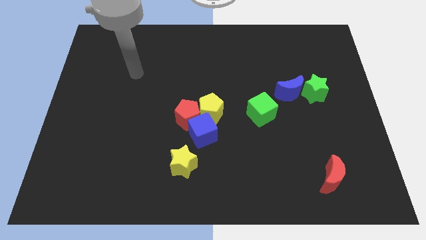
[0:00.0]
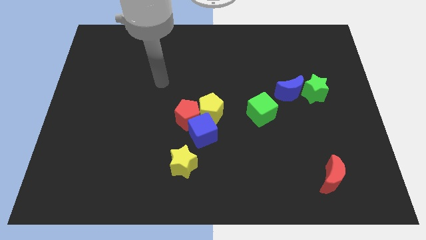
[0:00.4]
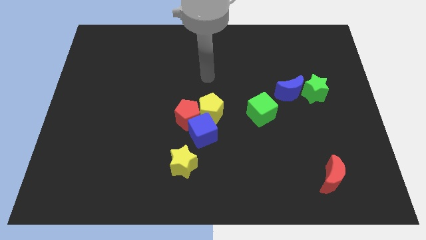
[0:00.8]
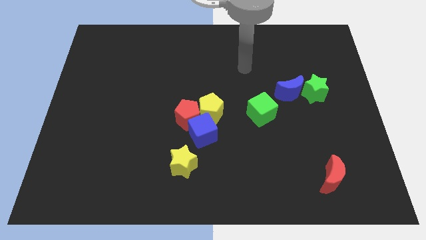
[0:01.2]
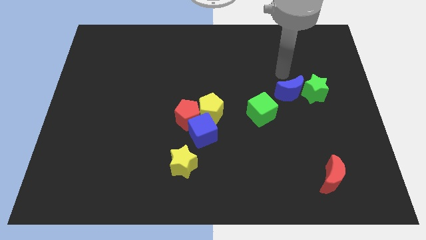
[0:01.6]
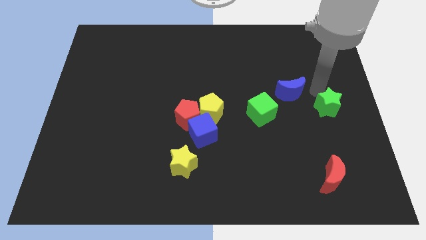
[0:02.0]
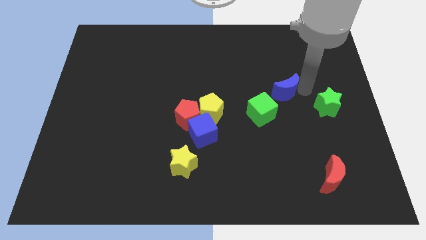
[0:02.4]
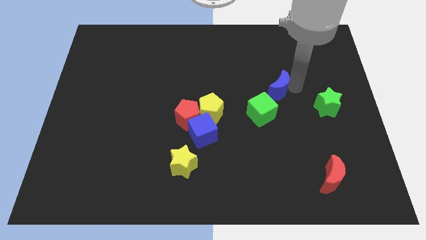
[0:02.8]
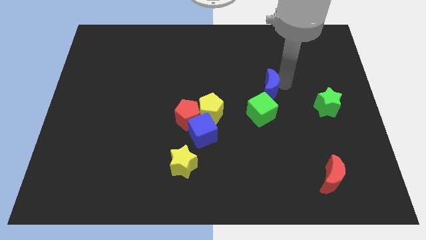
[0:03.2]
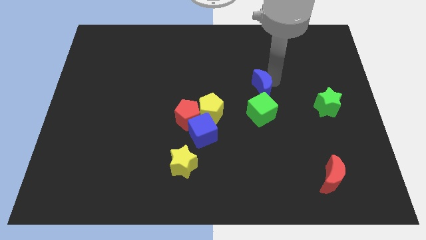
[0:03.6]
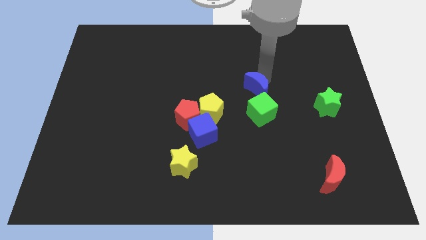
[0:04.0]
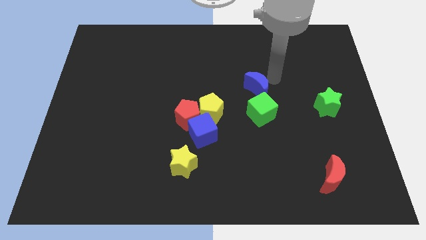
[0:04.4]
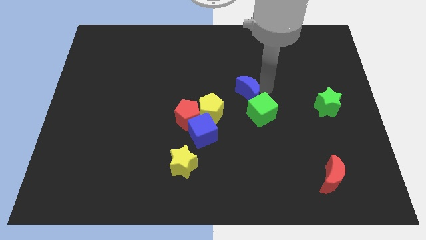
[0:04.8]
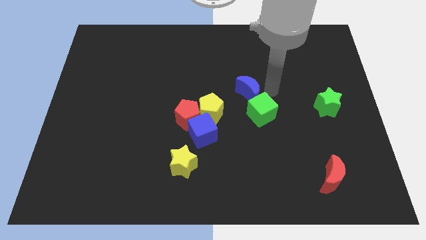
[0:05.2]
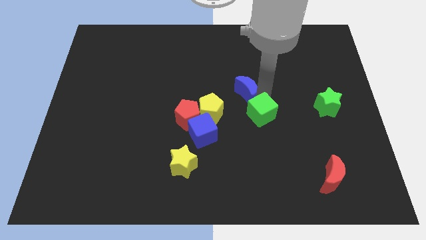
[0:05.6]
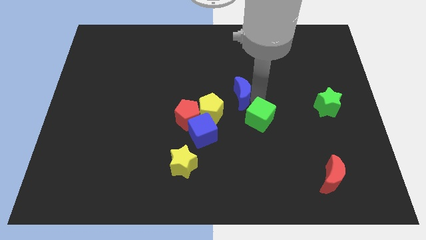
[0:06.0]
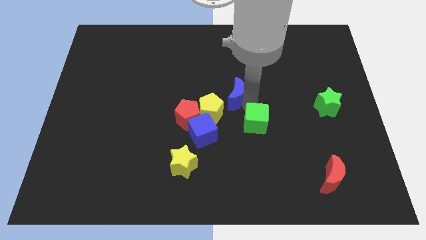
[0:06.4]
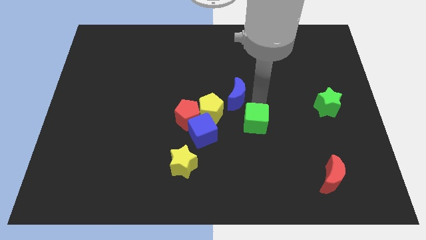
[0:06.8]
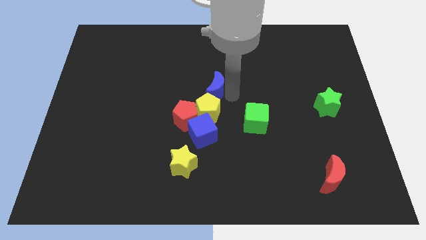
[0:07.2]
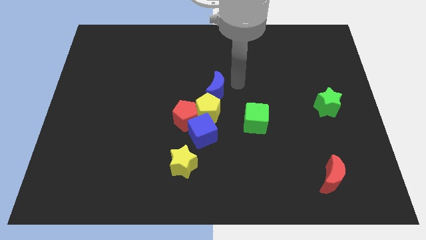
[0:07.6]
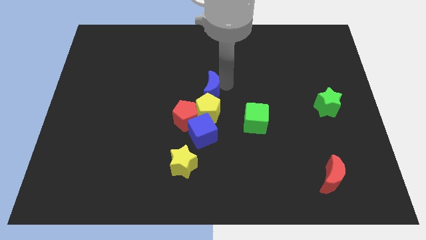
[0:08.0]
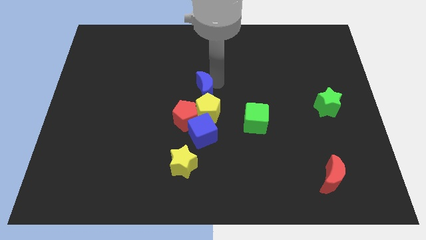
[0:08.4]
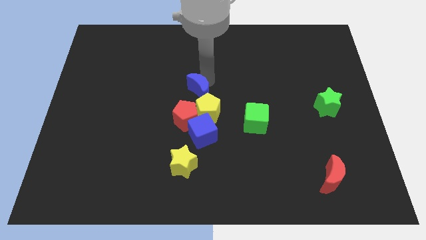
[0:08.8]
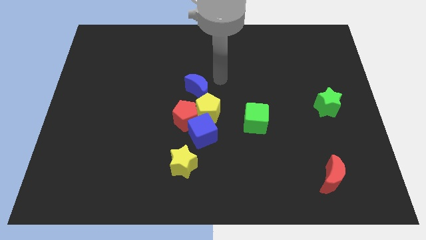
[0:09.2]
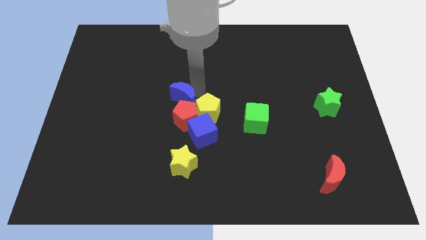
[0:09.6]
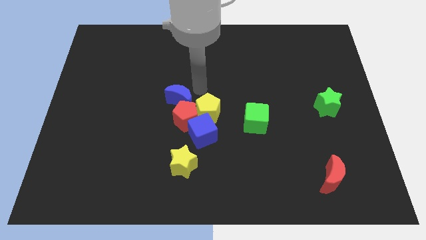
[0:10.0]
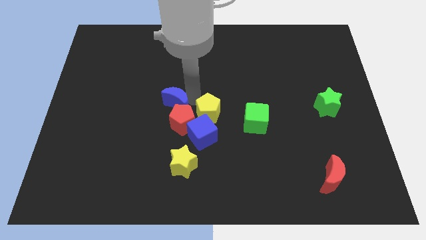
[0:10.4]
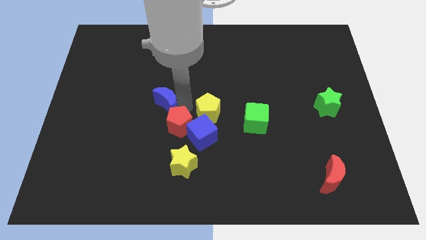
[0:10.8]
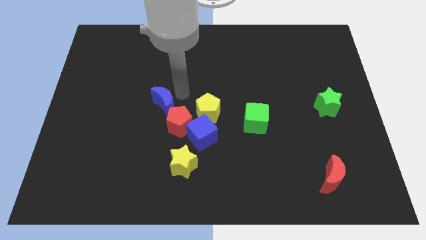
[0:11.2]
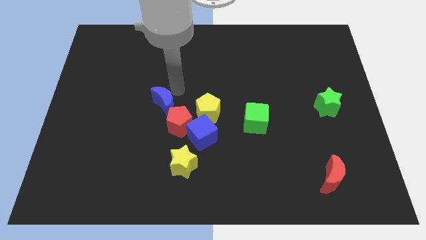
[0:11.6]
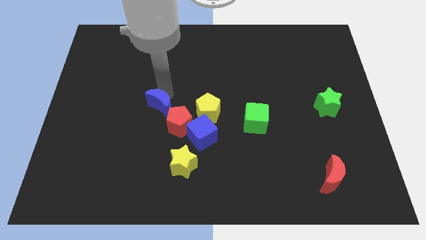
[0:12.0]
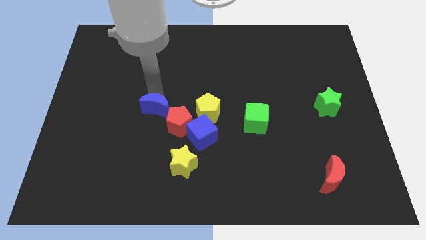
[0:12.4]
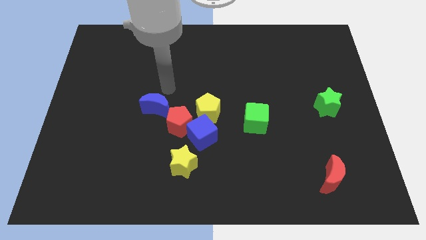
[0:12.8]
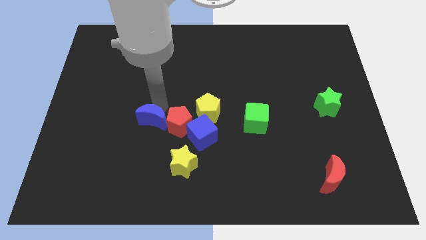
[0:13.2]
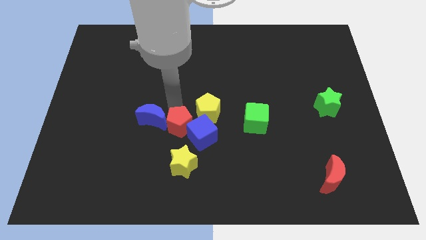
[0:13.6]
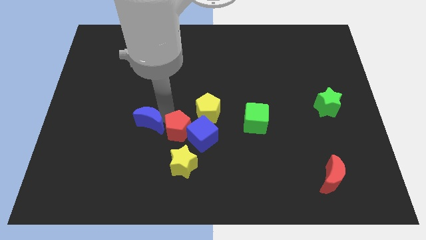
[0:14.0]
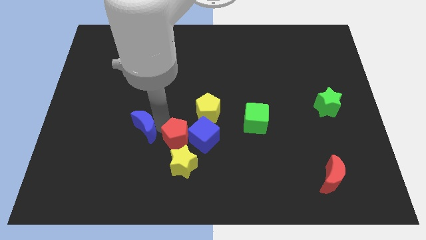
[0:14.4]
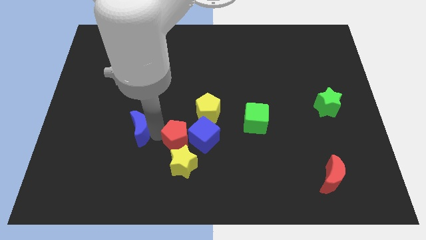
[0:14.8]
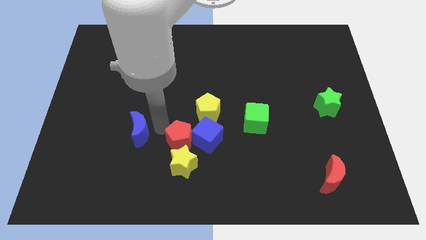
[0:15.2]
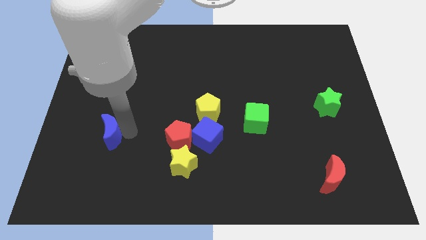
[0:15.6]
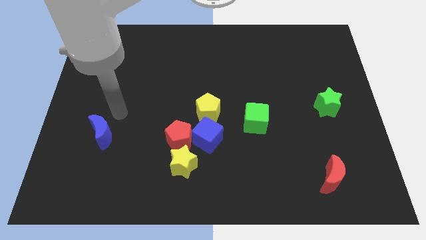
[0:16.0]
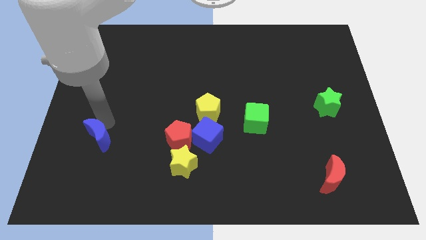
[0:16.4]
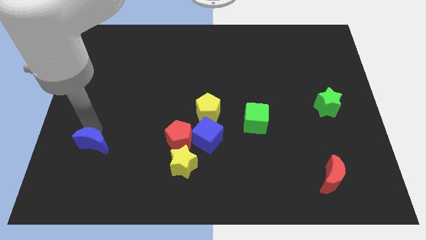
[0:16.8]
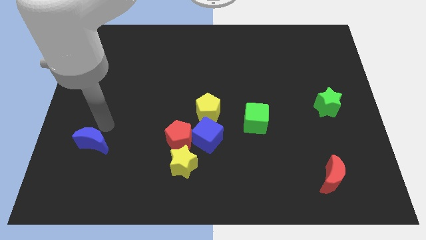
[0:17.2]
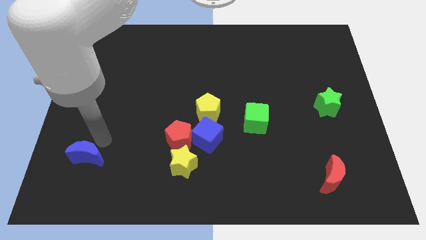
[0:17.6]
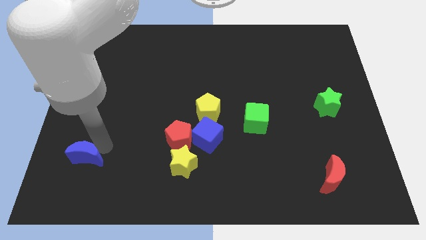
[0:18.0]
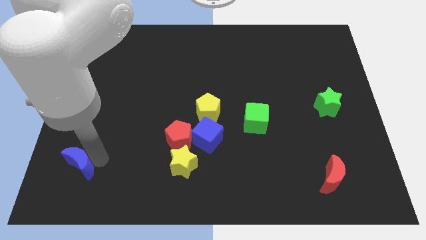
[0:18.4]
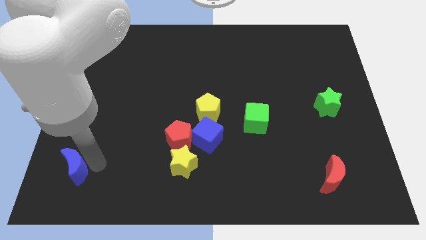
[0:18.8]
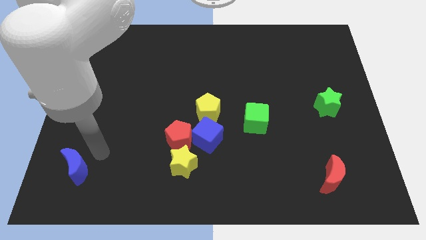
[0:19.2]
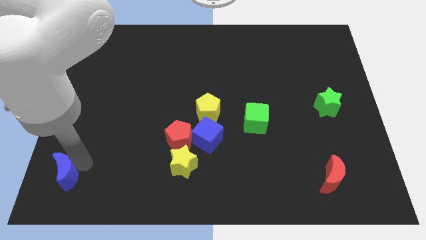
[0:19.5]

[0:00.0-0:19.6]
put the blue moon to the bottom left corner

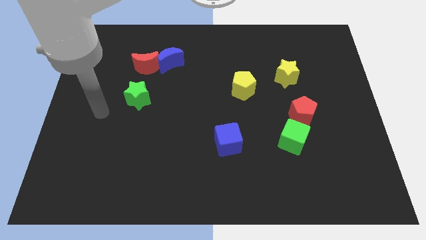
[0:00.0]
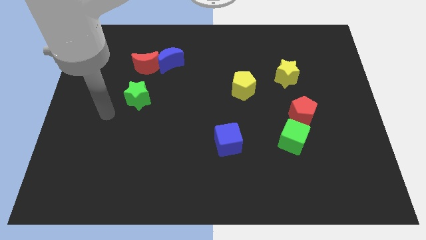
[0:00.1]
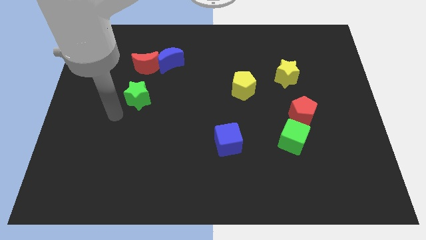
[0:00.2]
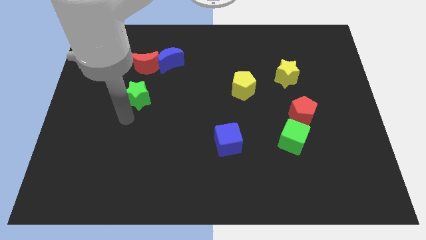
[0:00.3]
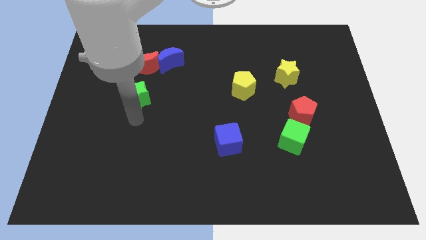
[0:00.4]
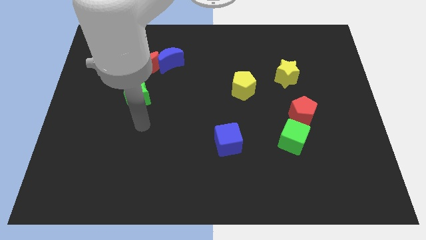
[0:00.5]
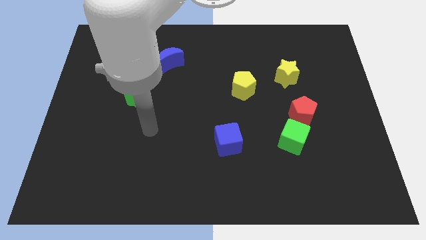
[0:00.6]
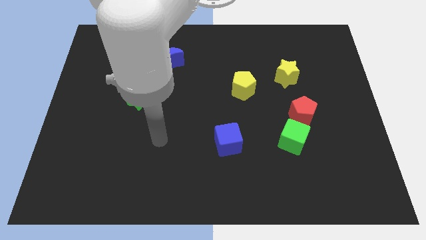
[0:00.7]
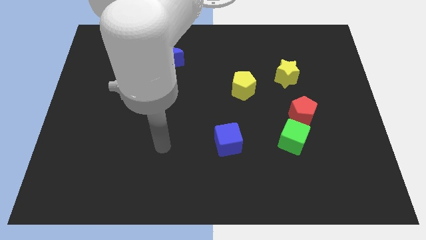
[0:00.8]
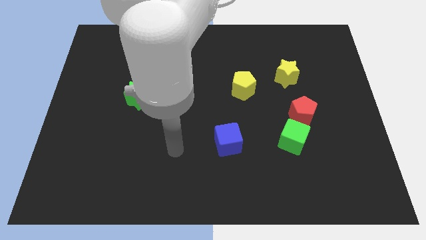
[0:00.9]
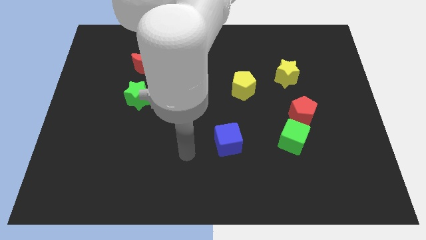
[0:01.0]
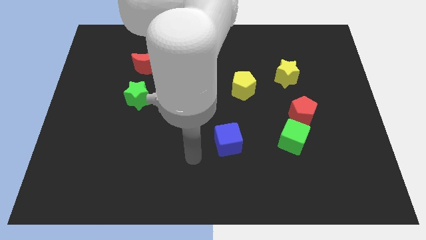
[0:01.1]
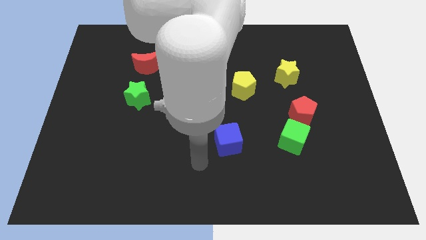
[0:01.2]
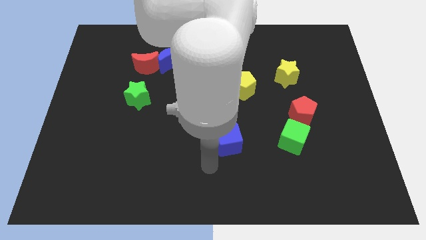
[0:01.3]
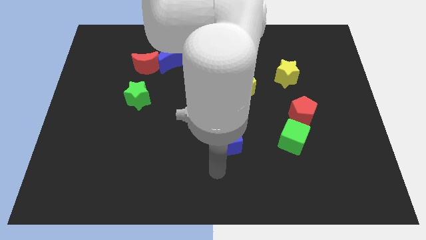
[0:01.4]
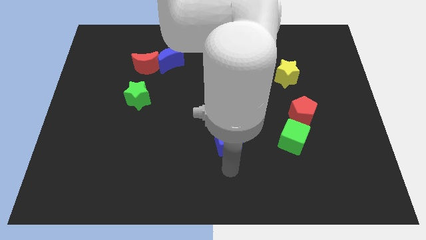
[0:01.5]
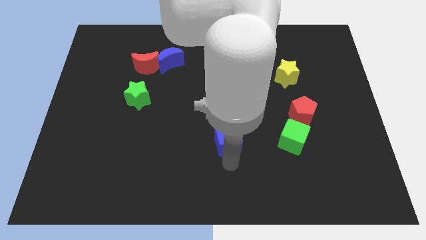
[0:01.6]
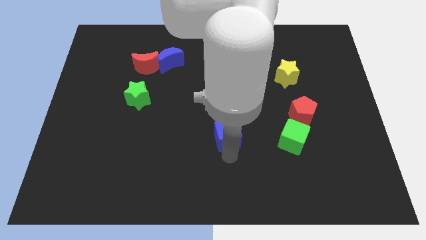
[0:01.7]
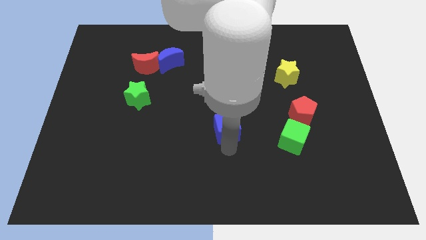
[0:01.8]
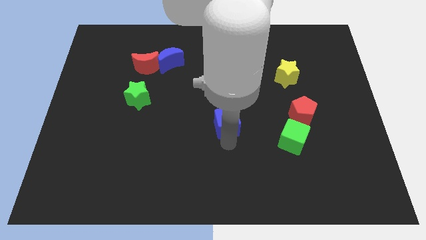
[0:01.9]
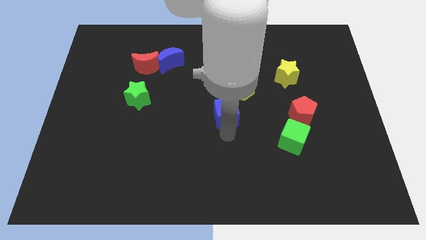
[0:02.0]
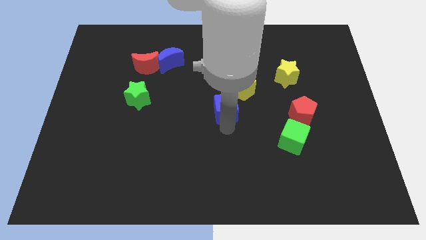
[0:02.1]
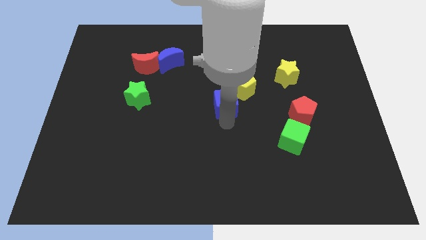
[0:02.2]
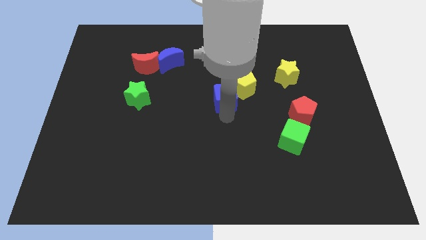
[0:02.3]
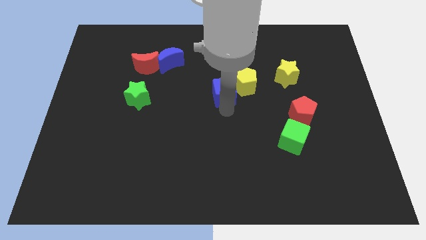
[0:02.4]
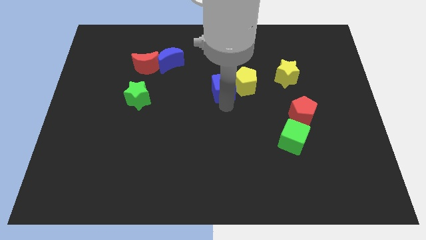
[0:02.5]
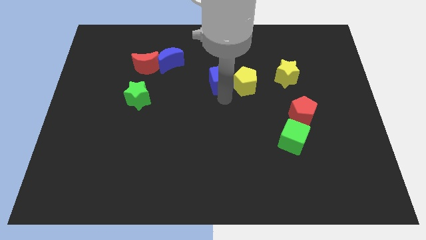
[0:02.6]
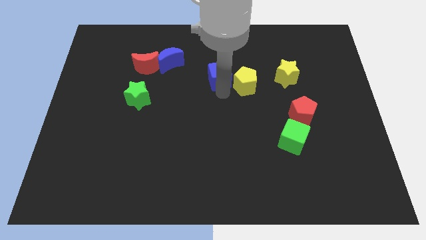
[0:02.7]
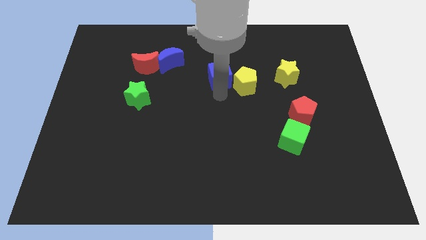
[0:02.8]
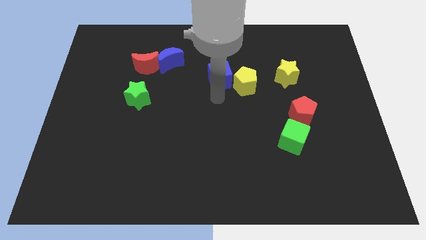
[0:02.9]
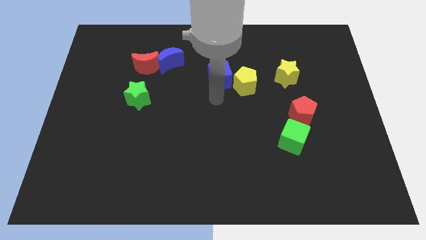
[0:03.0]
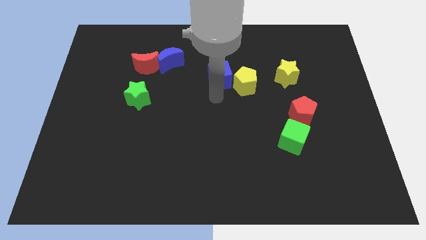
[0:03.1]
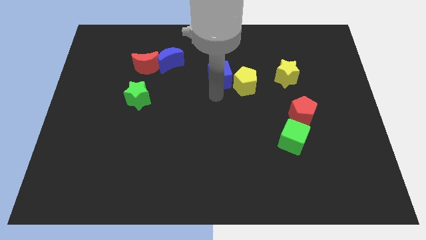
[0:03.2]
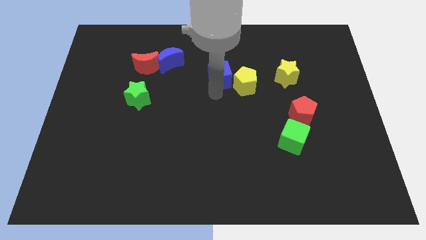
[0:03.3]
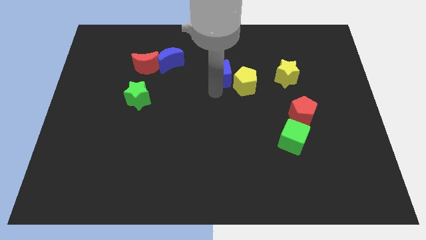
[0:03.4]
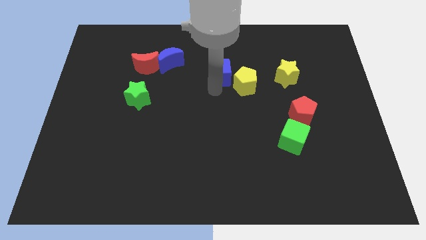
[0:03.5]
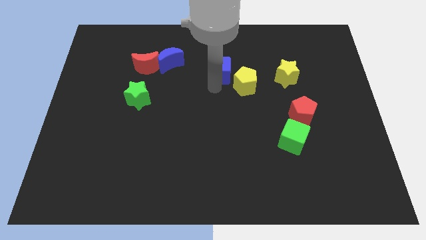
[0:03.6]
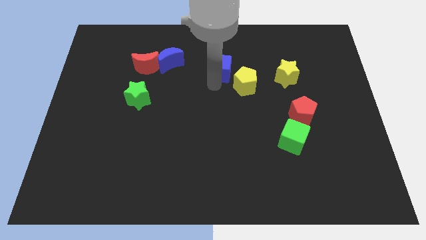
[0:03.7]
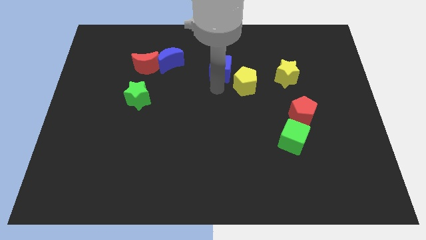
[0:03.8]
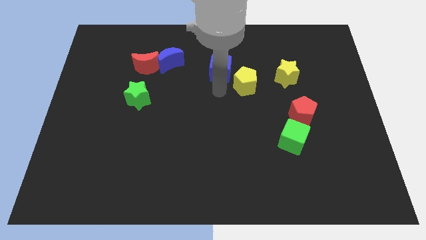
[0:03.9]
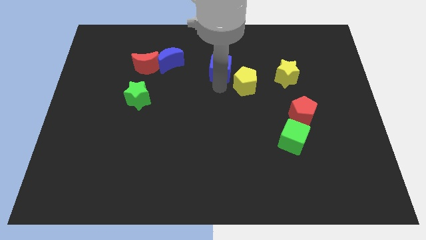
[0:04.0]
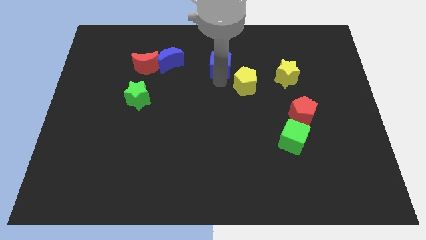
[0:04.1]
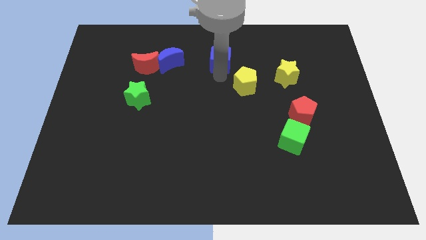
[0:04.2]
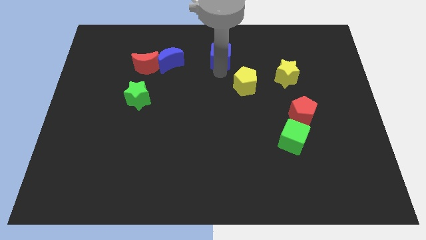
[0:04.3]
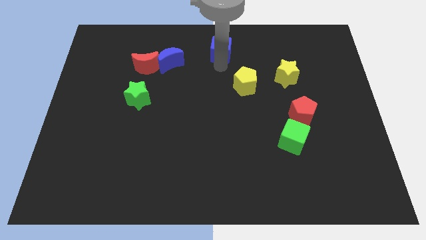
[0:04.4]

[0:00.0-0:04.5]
put the blue cube to the towards your base
